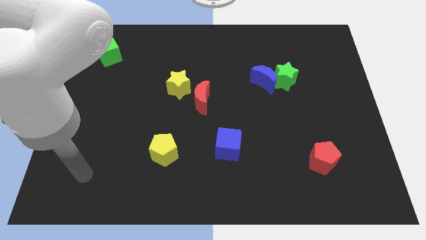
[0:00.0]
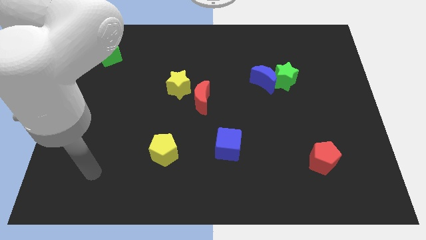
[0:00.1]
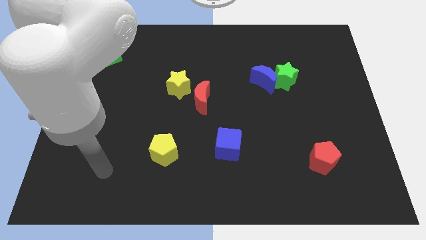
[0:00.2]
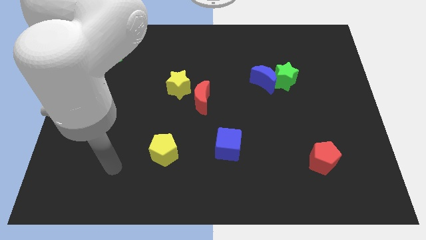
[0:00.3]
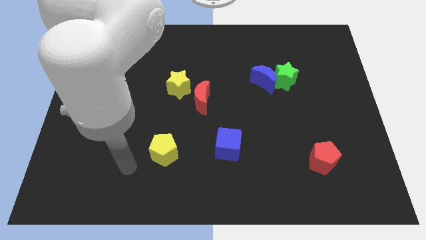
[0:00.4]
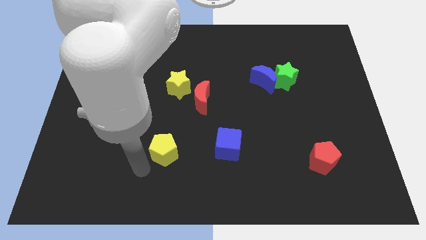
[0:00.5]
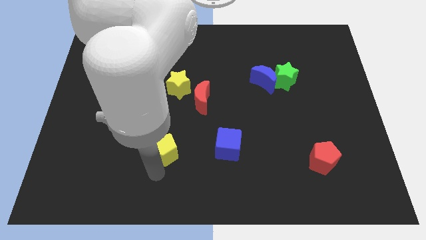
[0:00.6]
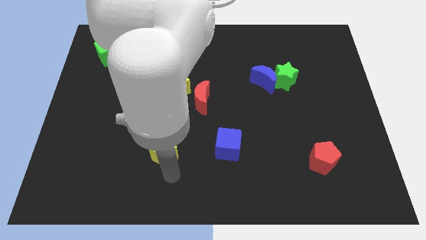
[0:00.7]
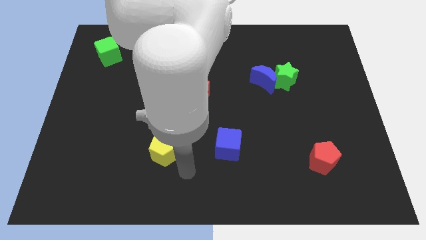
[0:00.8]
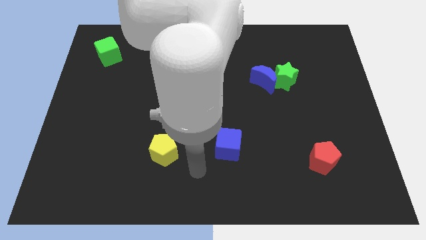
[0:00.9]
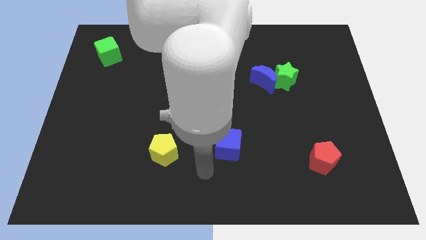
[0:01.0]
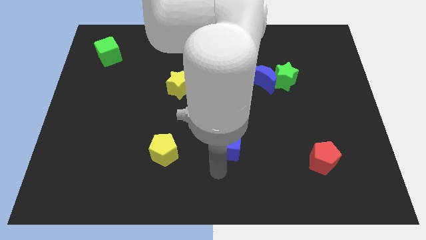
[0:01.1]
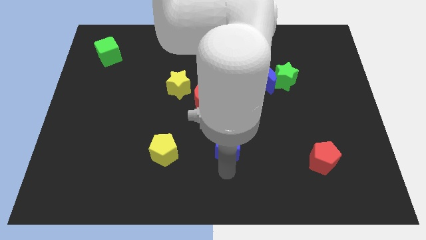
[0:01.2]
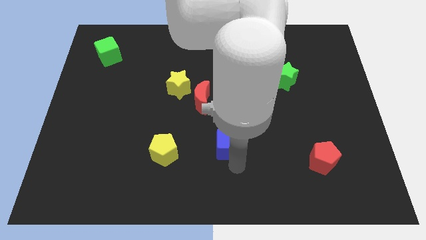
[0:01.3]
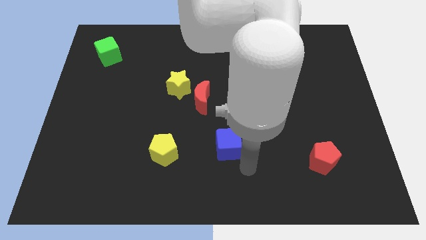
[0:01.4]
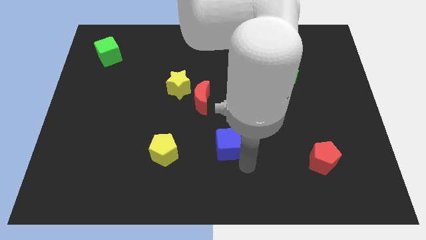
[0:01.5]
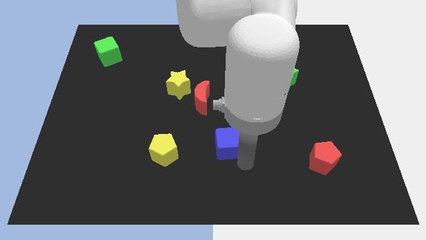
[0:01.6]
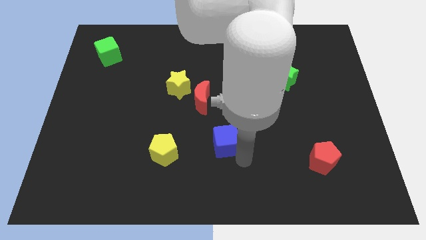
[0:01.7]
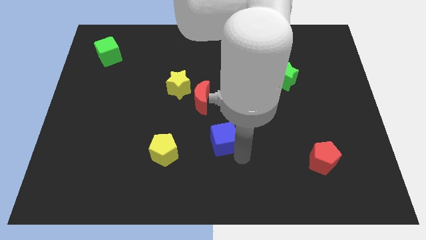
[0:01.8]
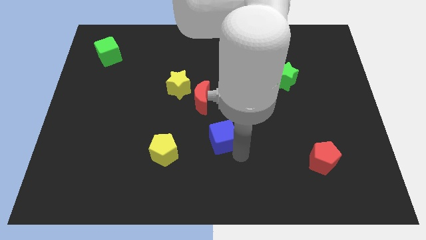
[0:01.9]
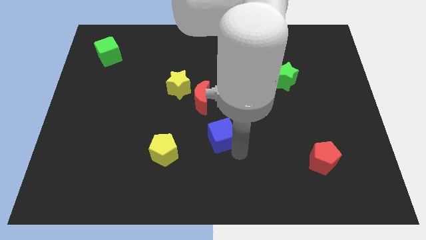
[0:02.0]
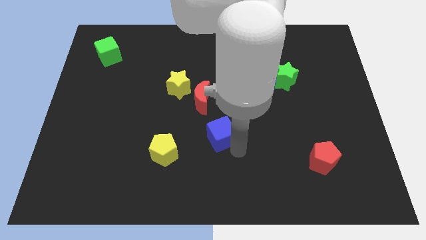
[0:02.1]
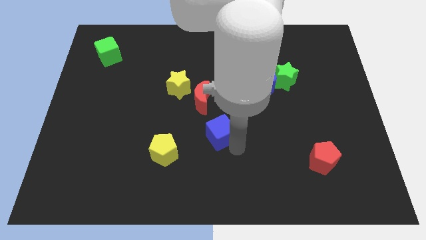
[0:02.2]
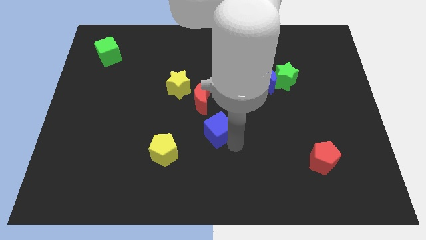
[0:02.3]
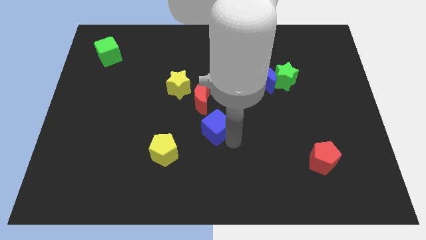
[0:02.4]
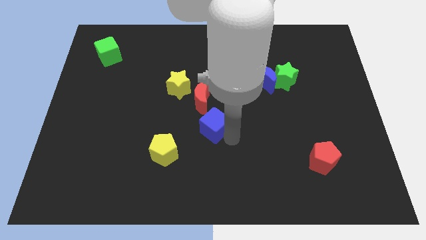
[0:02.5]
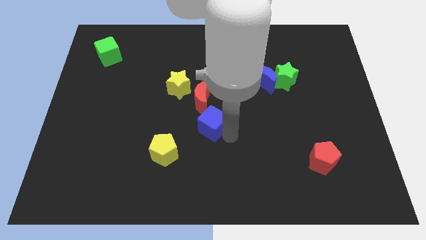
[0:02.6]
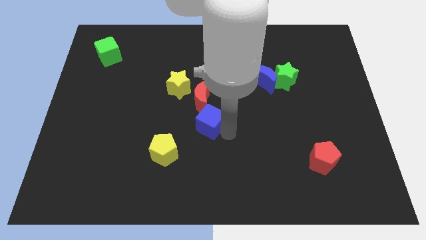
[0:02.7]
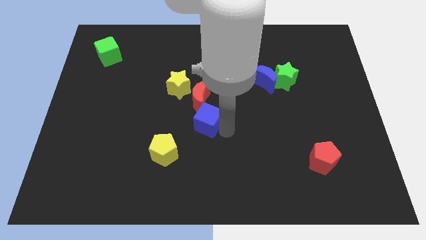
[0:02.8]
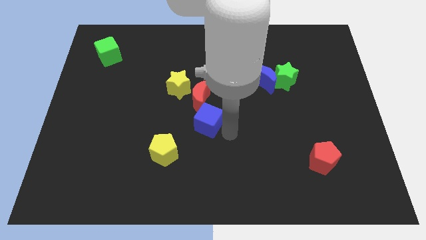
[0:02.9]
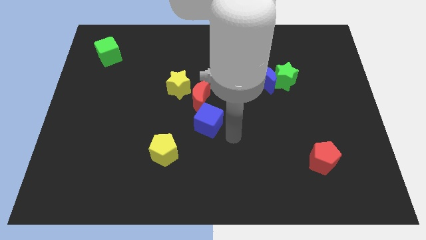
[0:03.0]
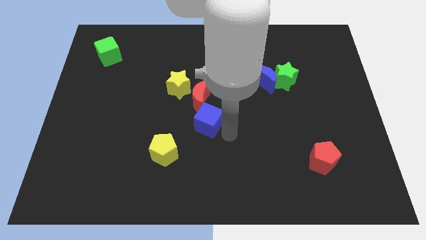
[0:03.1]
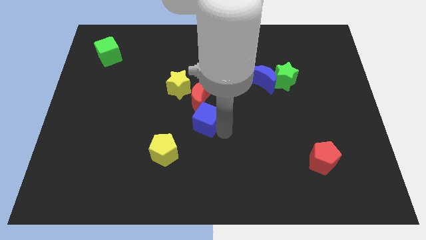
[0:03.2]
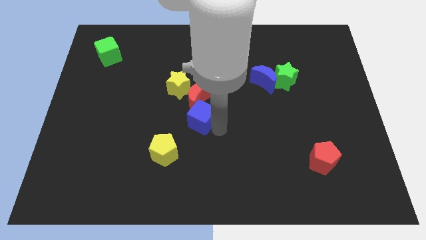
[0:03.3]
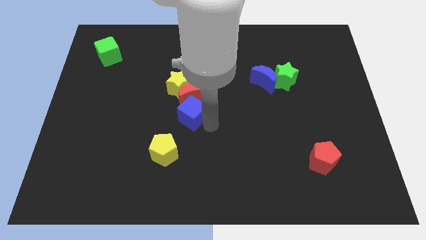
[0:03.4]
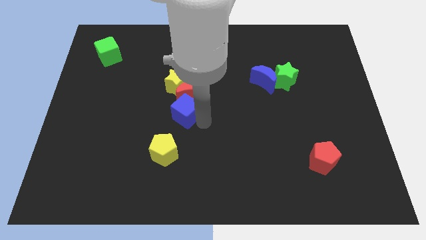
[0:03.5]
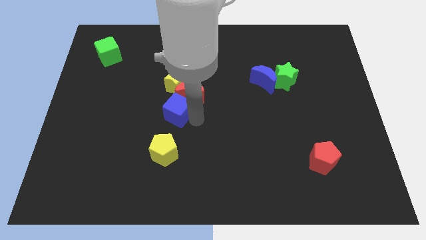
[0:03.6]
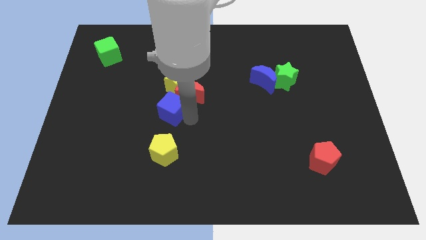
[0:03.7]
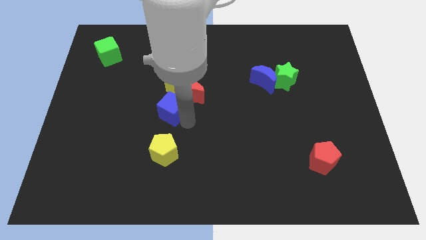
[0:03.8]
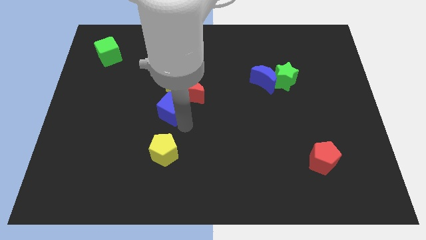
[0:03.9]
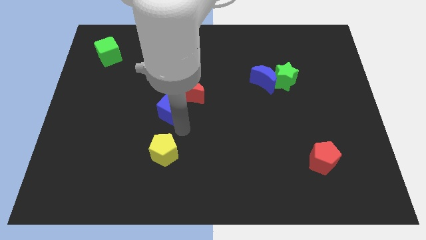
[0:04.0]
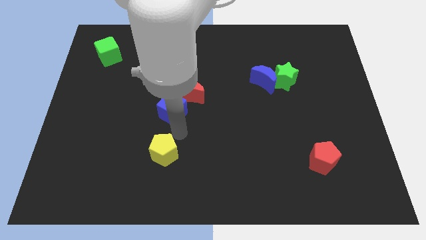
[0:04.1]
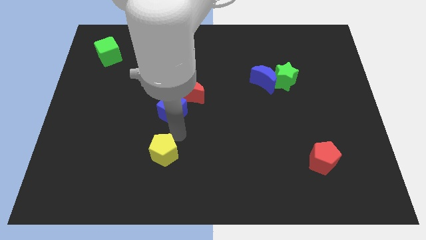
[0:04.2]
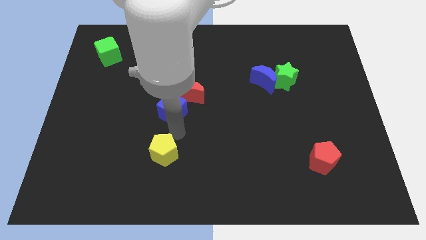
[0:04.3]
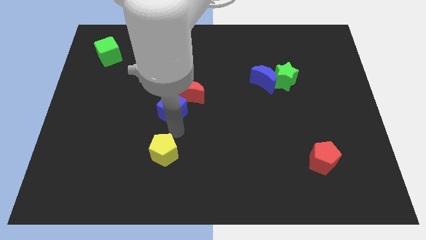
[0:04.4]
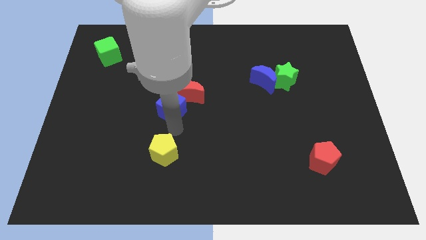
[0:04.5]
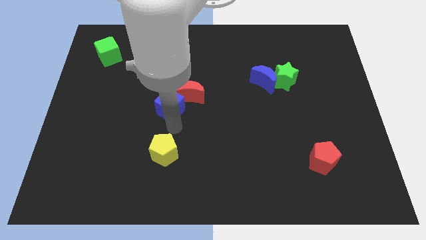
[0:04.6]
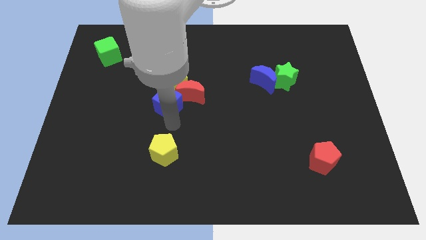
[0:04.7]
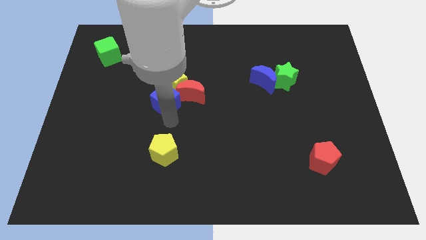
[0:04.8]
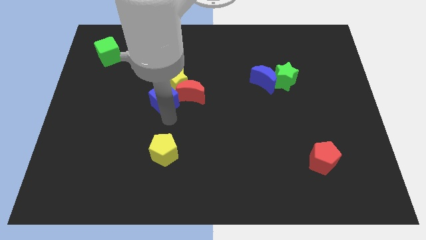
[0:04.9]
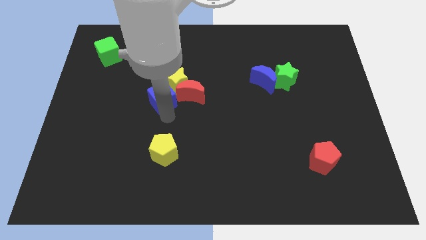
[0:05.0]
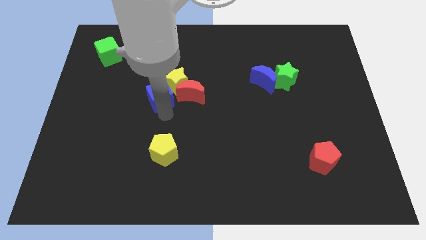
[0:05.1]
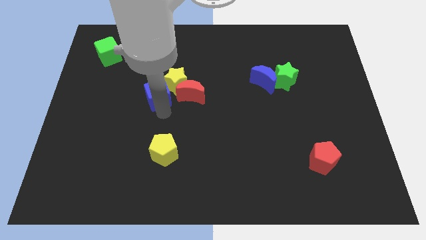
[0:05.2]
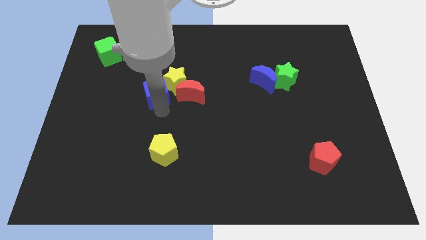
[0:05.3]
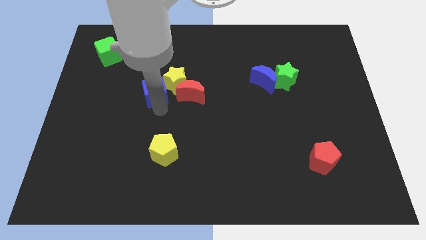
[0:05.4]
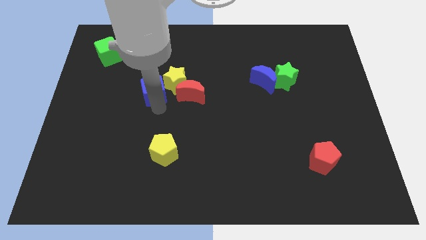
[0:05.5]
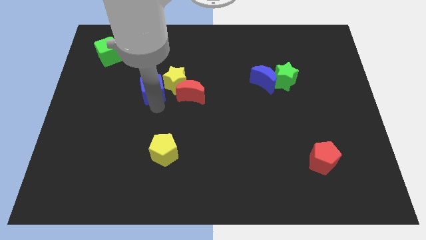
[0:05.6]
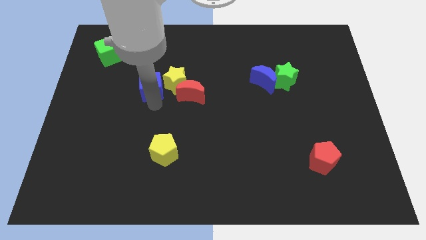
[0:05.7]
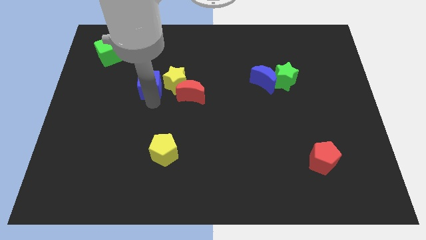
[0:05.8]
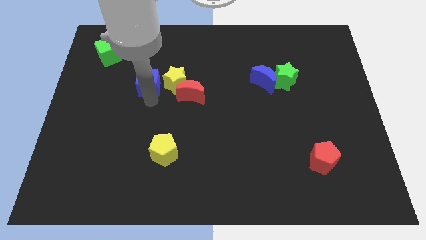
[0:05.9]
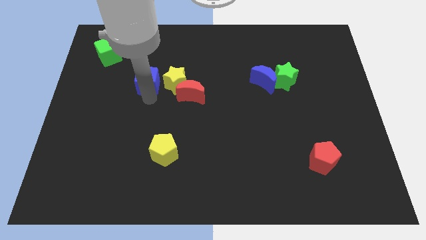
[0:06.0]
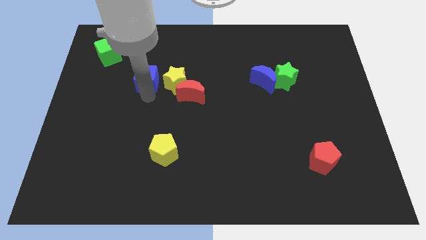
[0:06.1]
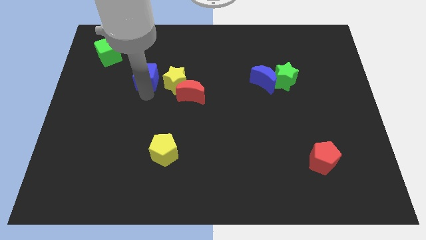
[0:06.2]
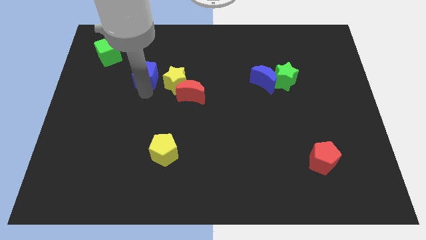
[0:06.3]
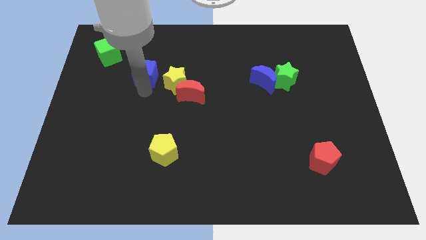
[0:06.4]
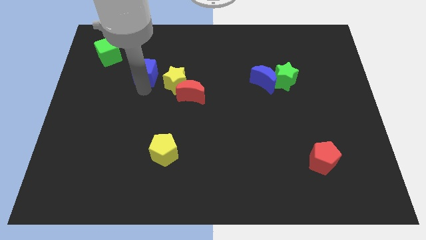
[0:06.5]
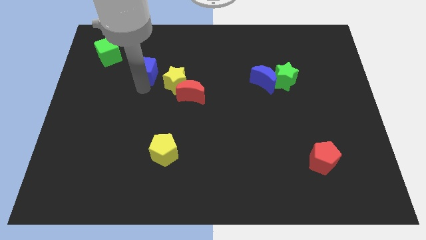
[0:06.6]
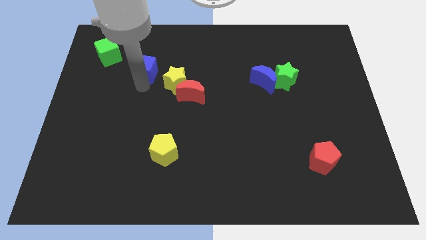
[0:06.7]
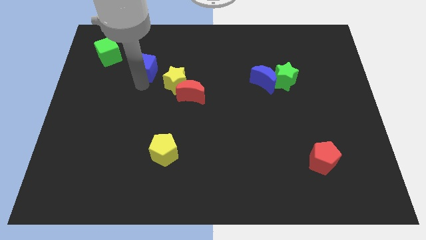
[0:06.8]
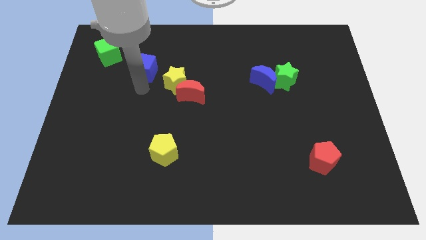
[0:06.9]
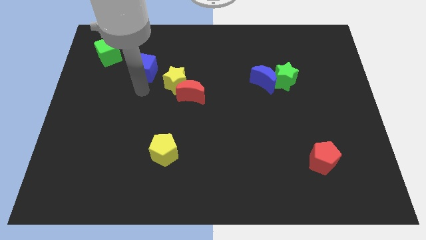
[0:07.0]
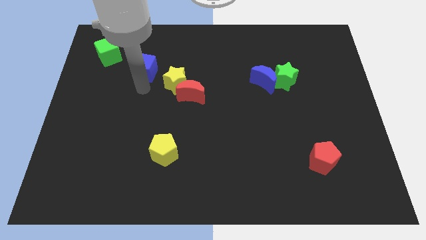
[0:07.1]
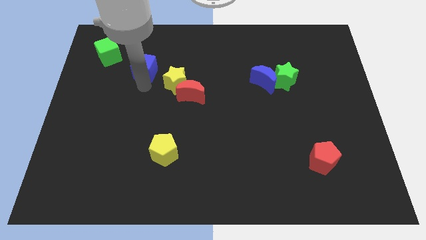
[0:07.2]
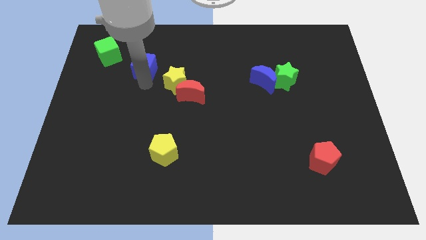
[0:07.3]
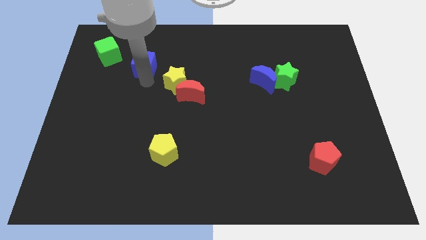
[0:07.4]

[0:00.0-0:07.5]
push the blue cube right of the green cube

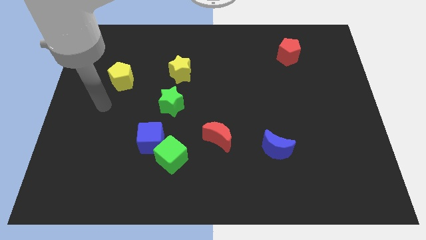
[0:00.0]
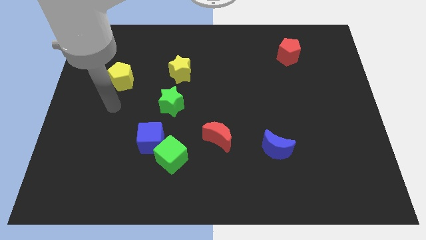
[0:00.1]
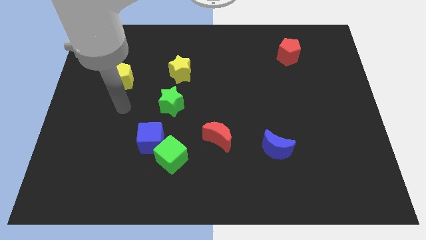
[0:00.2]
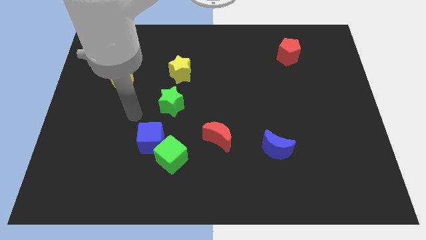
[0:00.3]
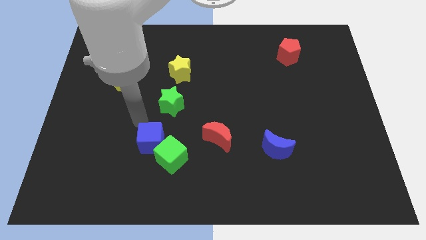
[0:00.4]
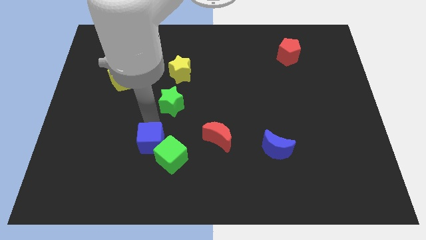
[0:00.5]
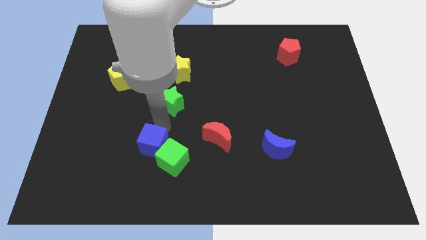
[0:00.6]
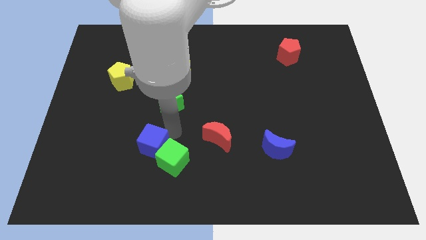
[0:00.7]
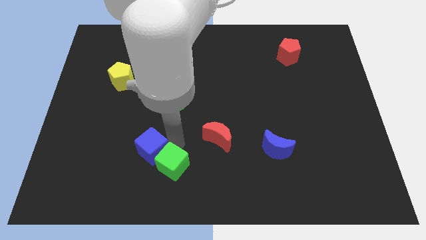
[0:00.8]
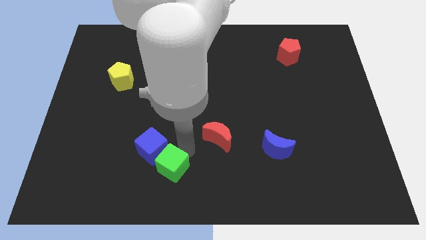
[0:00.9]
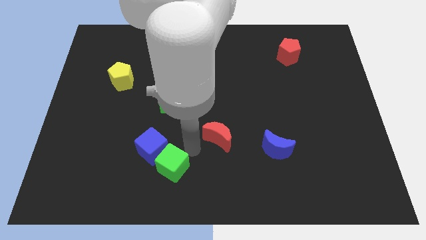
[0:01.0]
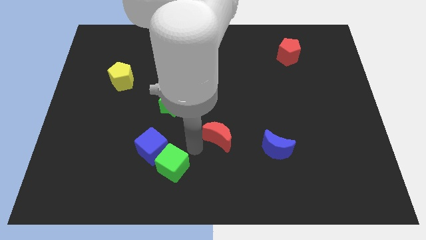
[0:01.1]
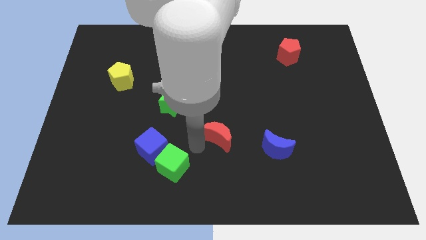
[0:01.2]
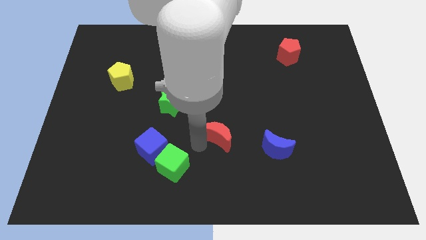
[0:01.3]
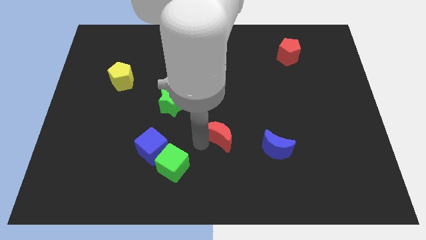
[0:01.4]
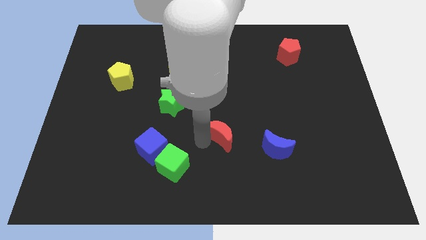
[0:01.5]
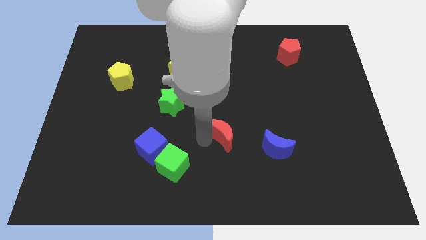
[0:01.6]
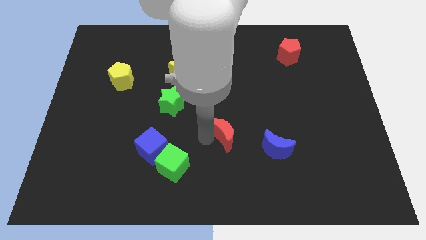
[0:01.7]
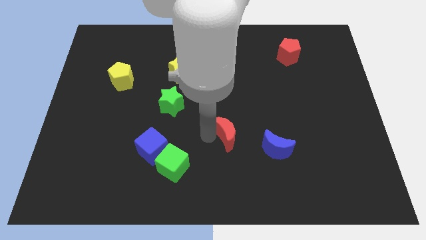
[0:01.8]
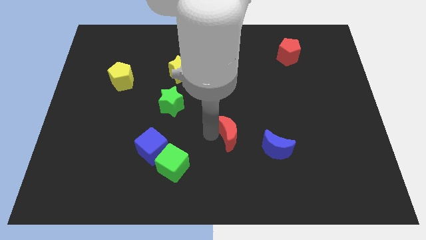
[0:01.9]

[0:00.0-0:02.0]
move the red moon to the top left of the blue moon
